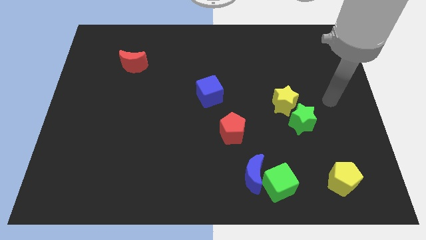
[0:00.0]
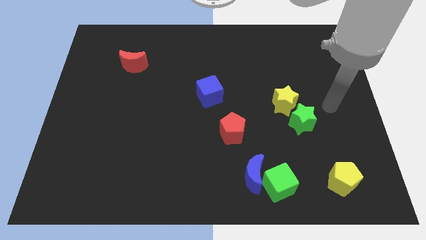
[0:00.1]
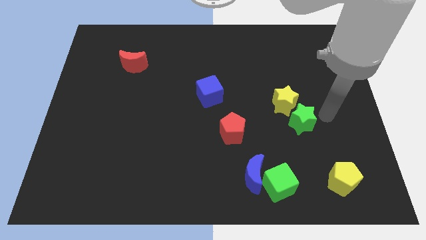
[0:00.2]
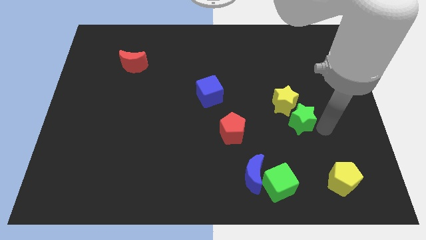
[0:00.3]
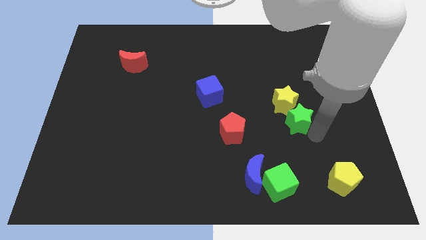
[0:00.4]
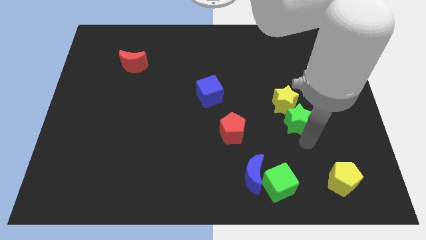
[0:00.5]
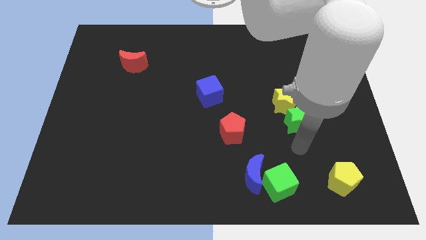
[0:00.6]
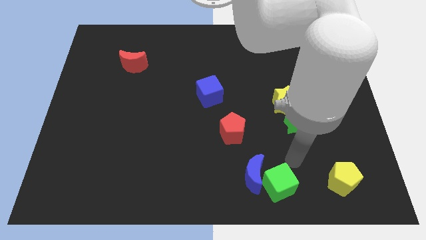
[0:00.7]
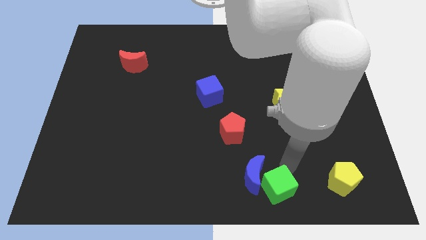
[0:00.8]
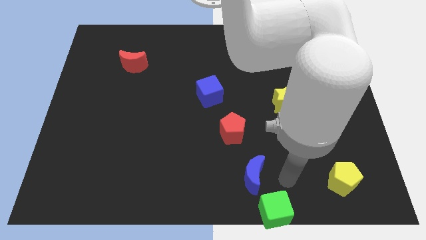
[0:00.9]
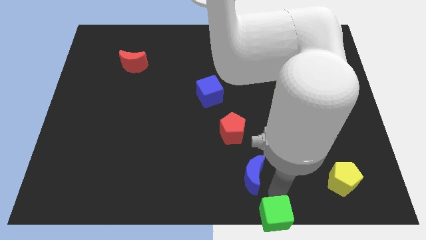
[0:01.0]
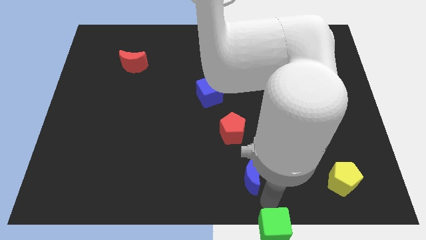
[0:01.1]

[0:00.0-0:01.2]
separate the blue moon from the green cube

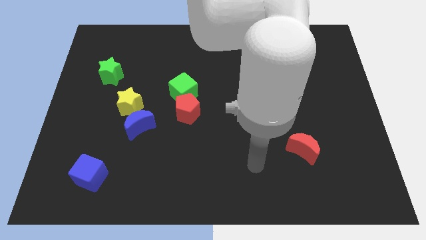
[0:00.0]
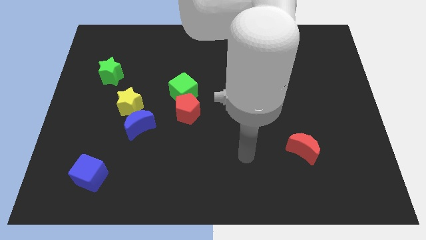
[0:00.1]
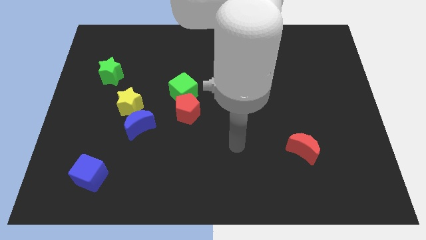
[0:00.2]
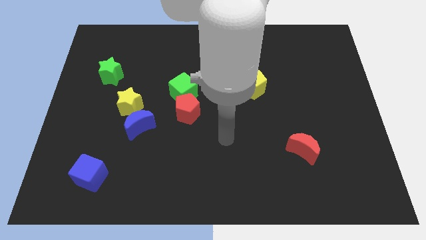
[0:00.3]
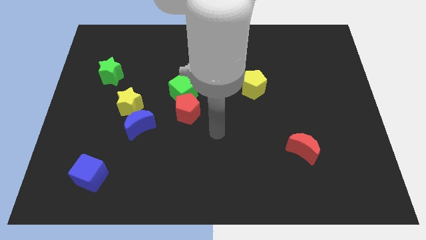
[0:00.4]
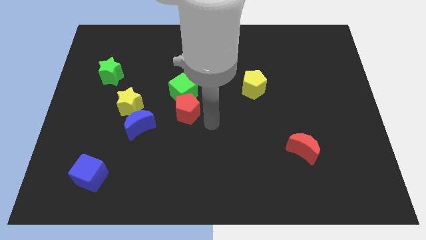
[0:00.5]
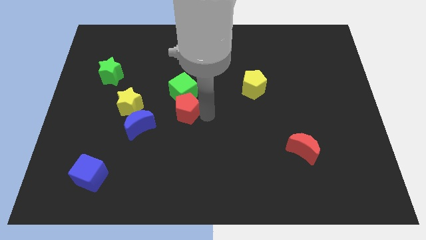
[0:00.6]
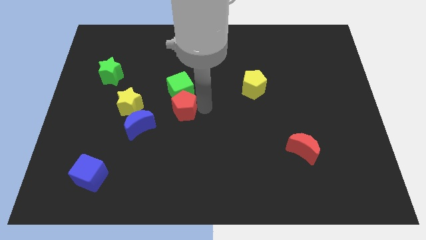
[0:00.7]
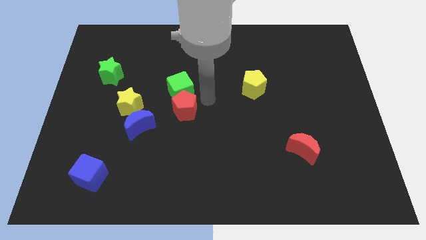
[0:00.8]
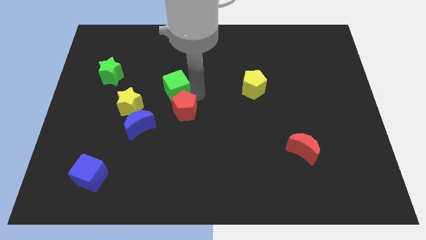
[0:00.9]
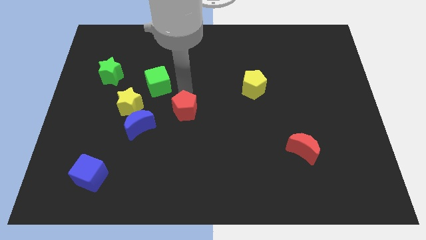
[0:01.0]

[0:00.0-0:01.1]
pull the red pentagon apart from the green cube

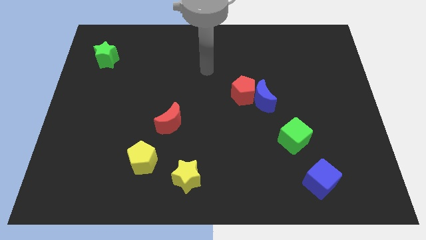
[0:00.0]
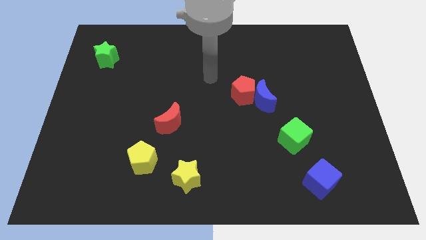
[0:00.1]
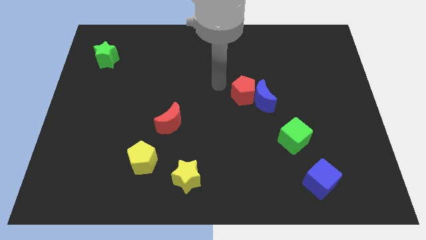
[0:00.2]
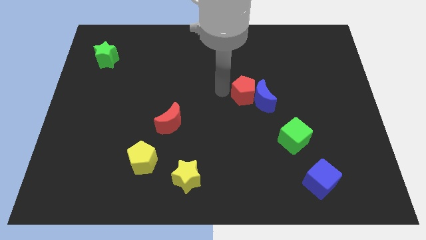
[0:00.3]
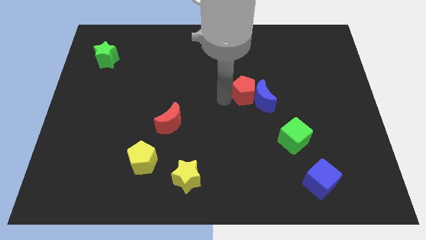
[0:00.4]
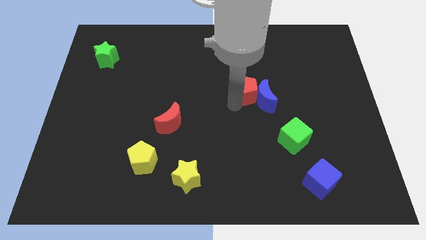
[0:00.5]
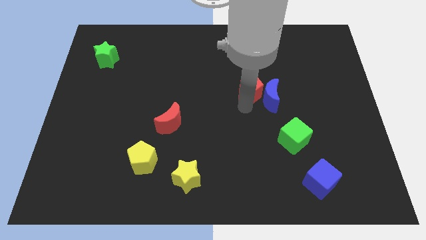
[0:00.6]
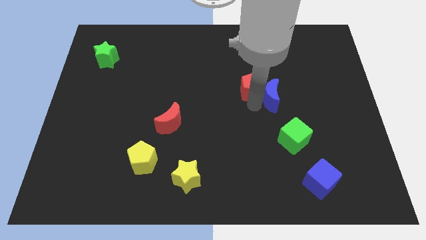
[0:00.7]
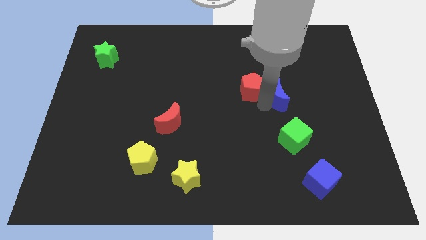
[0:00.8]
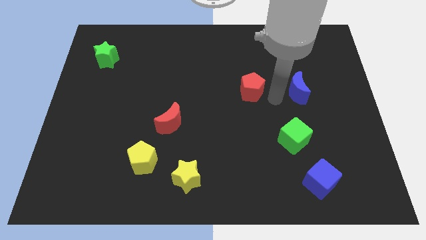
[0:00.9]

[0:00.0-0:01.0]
move the red pentagon away from the blue moon

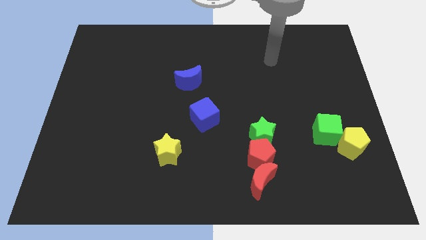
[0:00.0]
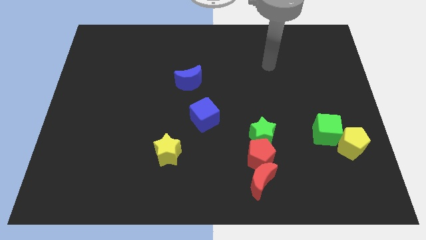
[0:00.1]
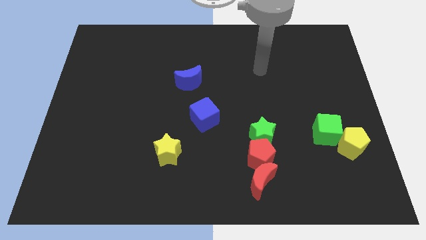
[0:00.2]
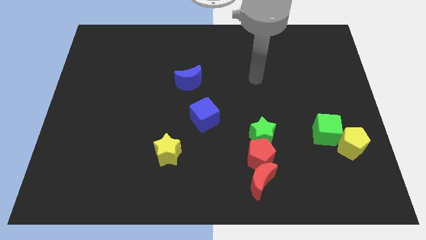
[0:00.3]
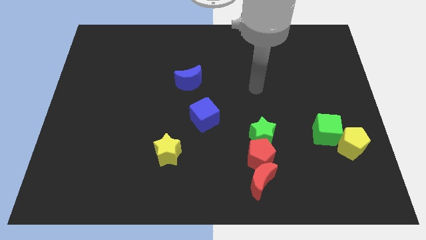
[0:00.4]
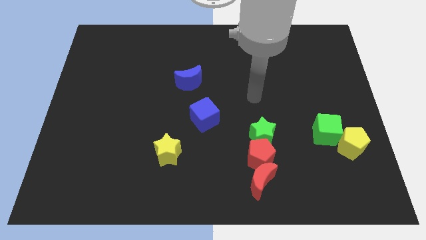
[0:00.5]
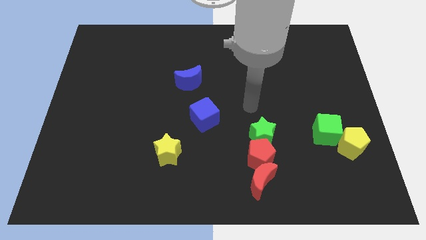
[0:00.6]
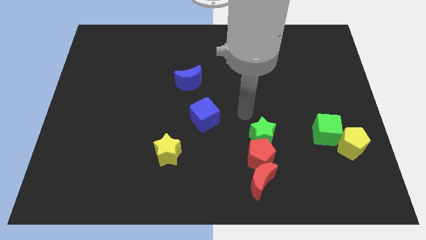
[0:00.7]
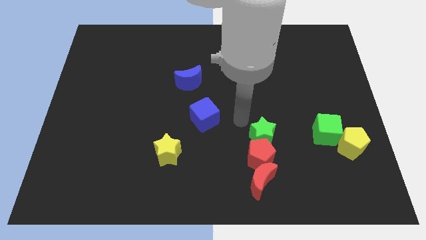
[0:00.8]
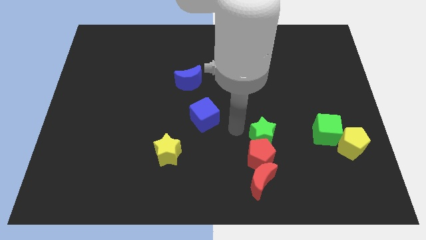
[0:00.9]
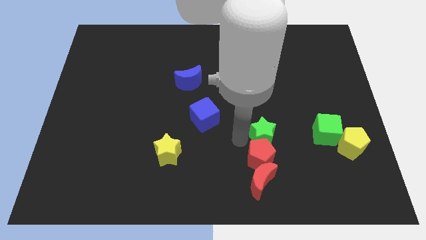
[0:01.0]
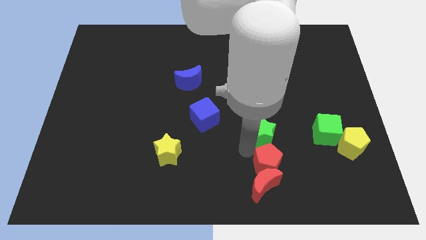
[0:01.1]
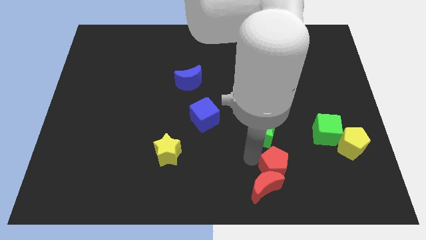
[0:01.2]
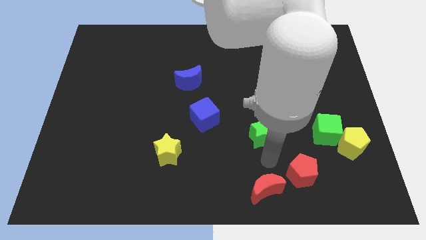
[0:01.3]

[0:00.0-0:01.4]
move the green star away from the red pentagon

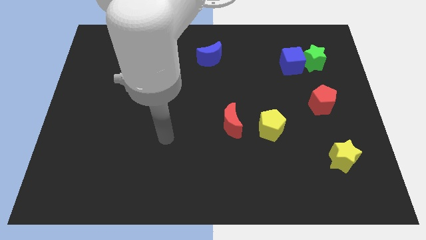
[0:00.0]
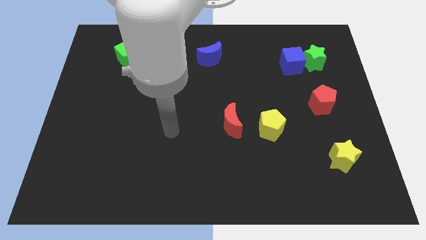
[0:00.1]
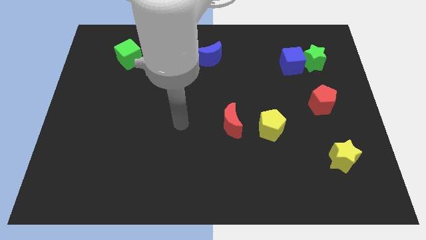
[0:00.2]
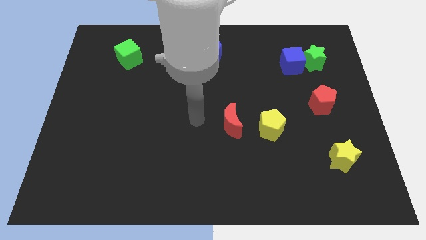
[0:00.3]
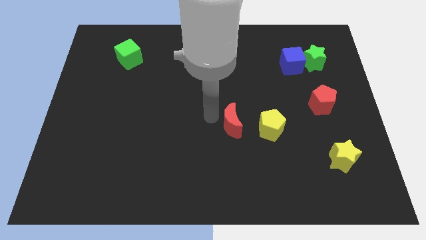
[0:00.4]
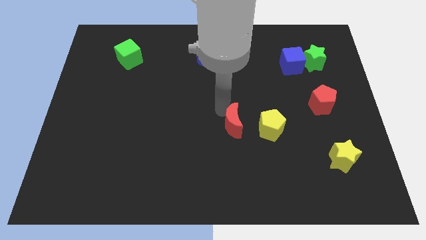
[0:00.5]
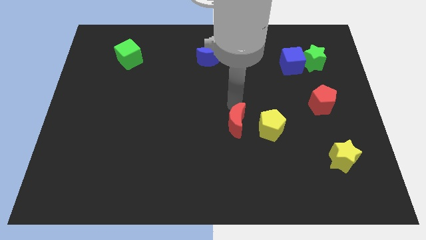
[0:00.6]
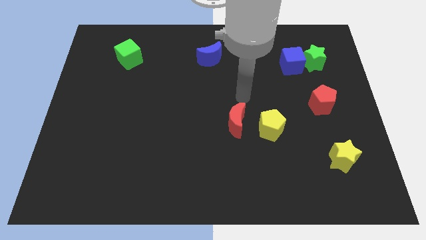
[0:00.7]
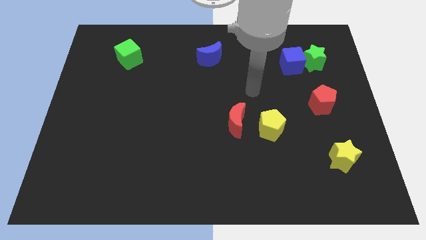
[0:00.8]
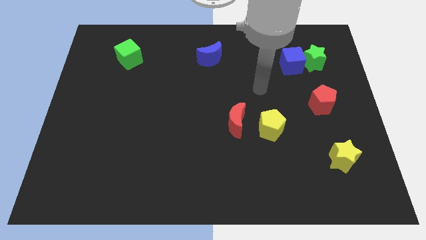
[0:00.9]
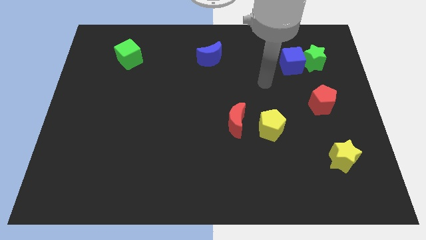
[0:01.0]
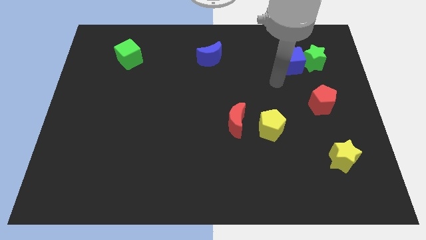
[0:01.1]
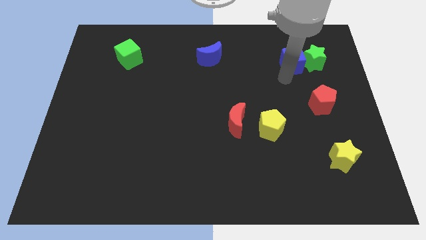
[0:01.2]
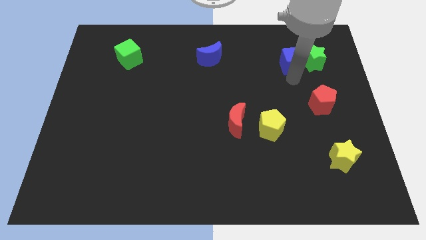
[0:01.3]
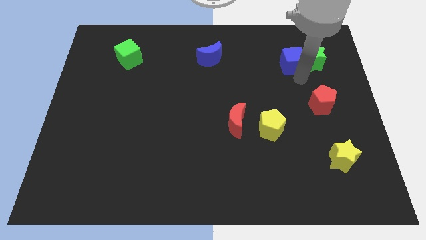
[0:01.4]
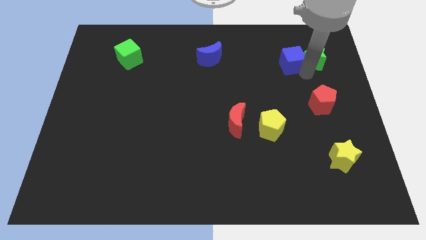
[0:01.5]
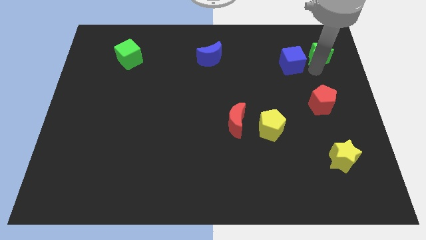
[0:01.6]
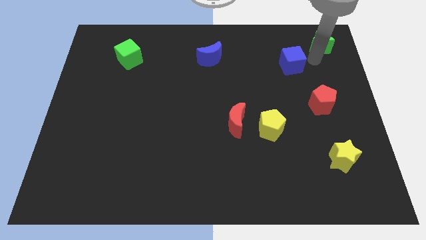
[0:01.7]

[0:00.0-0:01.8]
pull the blue cube apart from the green star

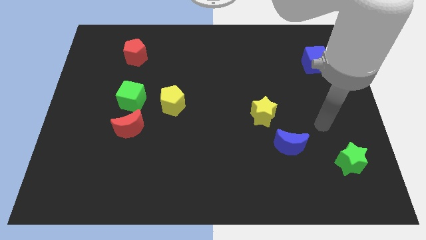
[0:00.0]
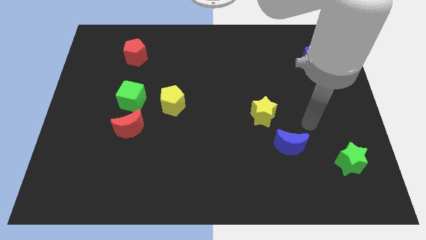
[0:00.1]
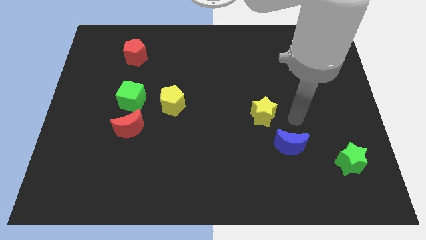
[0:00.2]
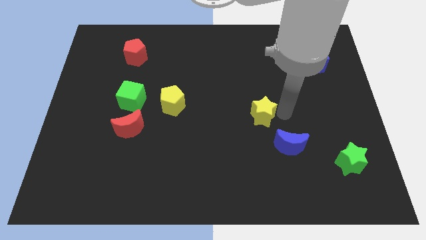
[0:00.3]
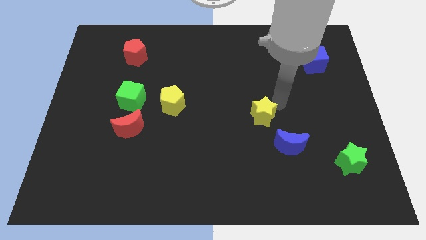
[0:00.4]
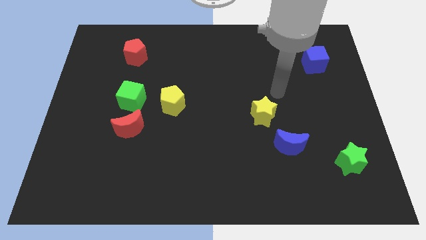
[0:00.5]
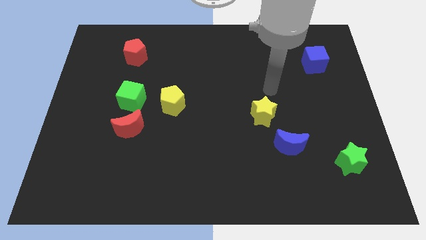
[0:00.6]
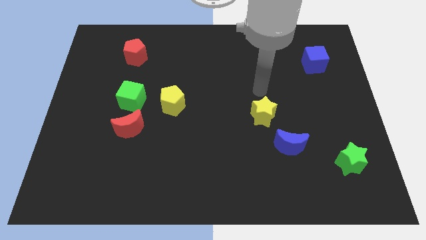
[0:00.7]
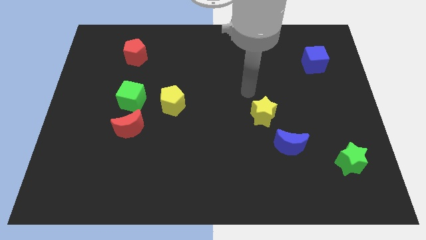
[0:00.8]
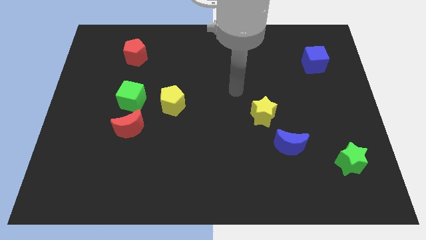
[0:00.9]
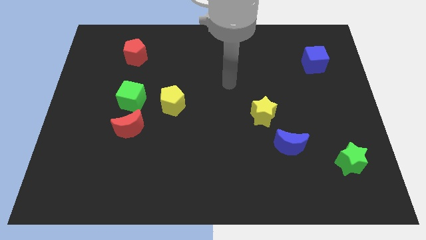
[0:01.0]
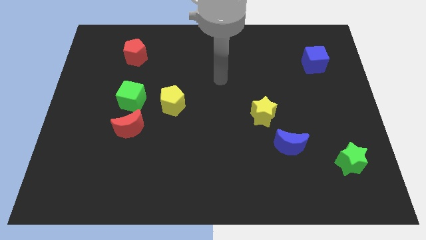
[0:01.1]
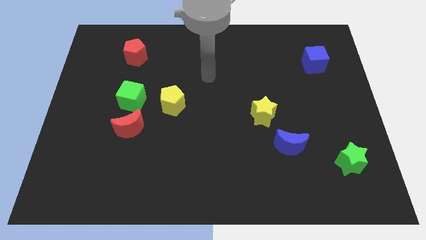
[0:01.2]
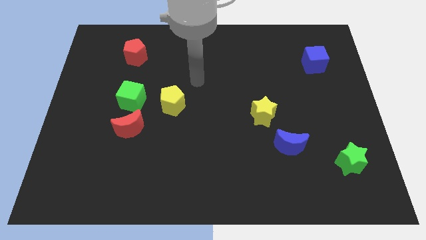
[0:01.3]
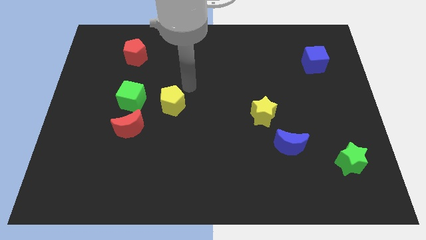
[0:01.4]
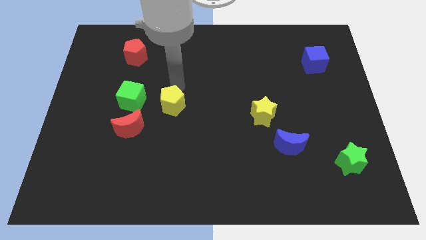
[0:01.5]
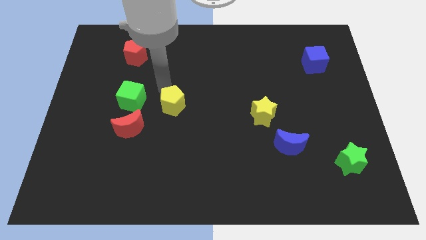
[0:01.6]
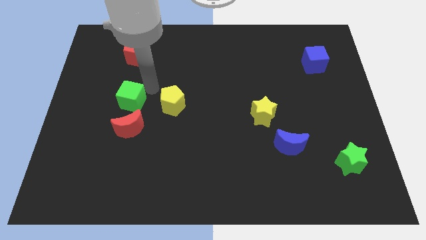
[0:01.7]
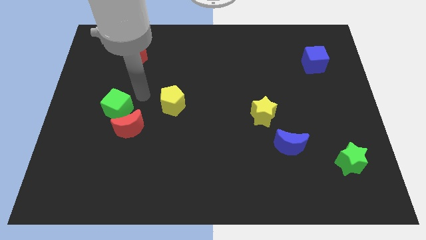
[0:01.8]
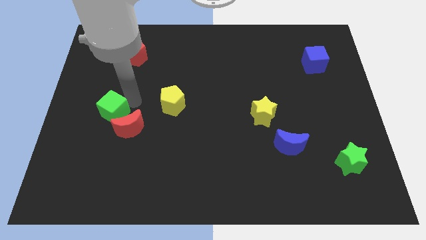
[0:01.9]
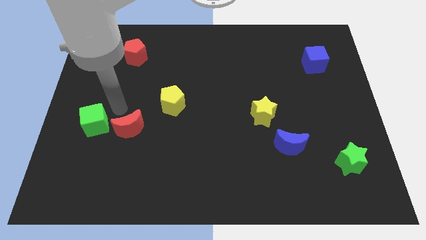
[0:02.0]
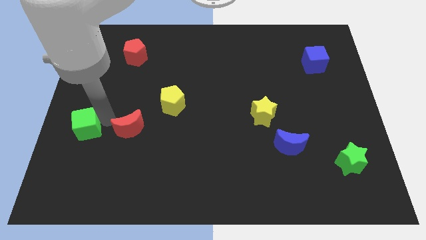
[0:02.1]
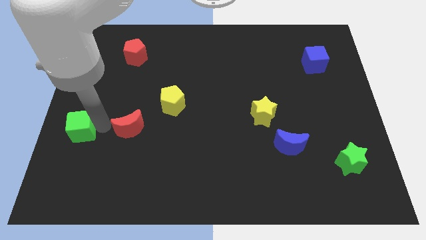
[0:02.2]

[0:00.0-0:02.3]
separate the red moon from the green cube

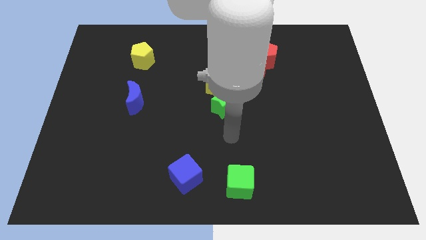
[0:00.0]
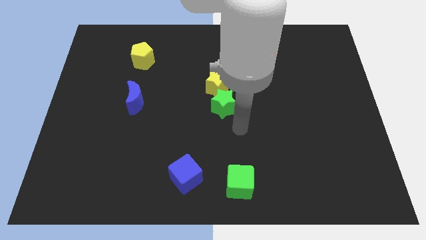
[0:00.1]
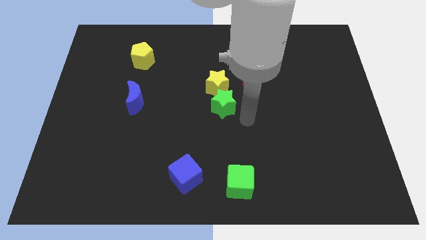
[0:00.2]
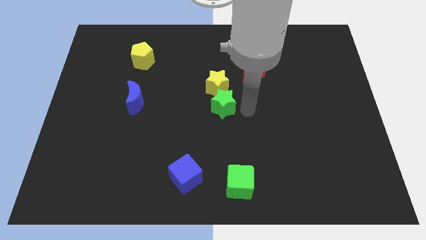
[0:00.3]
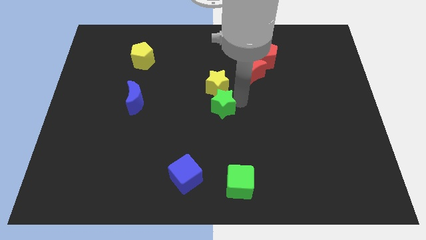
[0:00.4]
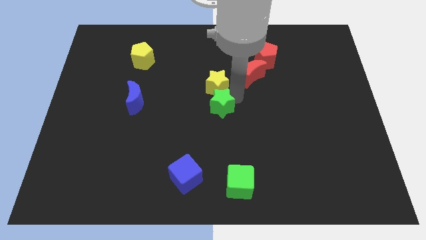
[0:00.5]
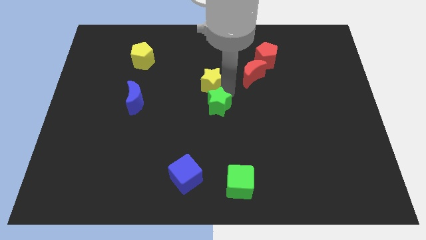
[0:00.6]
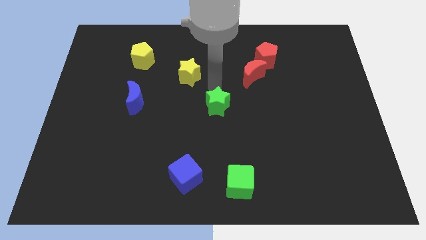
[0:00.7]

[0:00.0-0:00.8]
move the green star away from the yellow star
